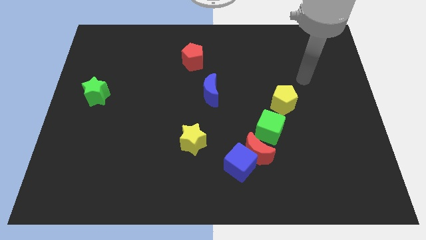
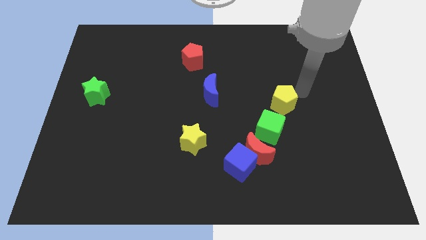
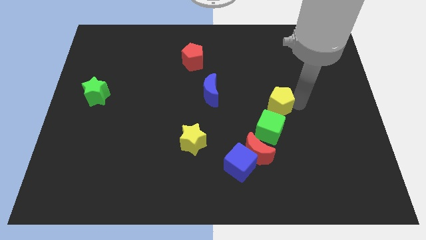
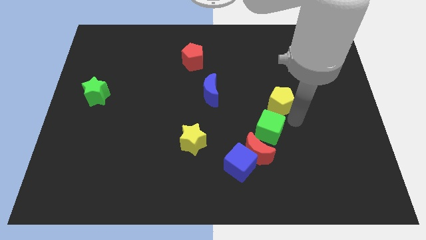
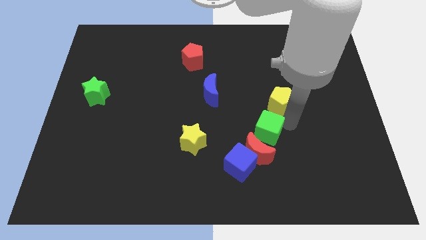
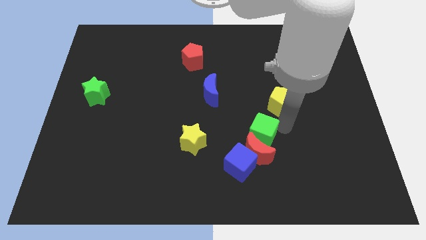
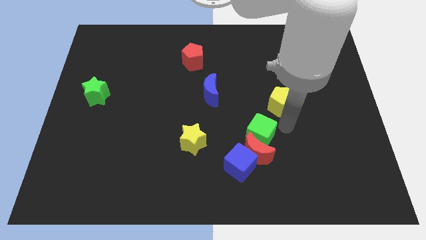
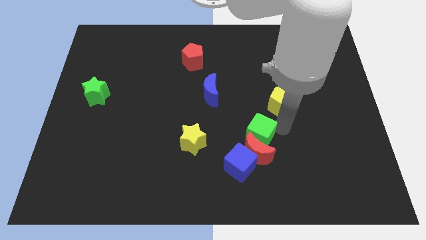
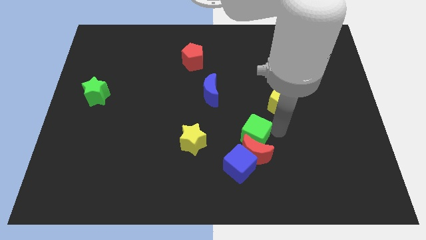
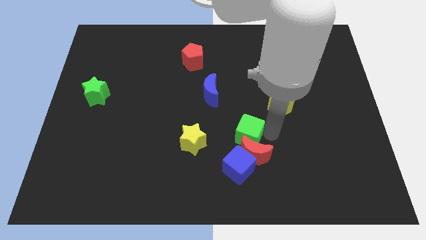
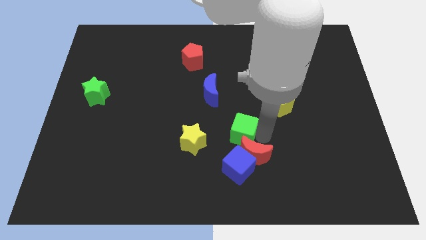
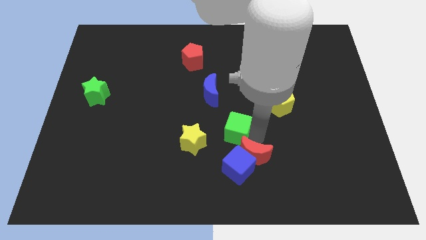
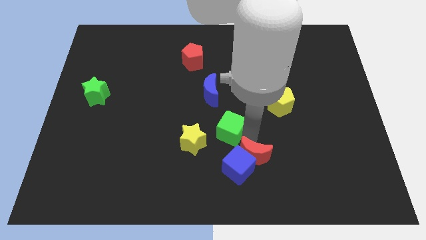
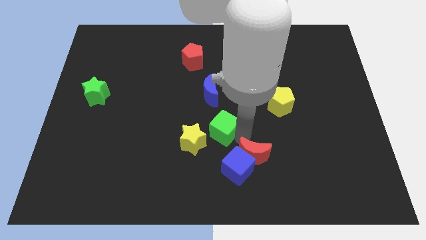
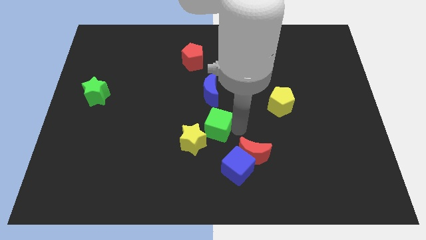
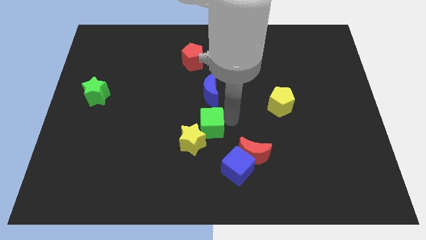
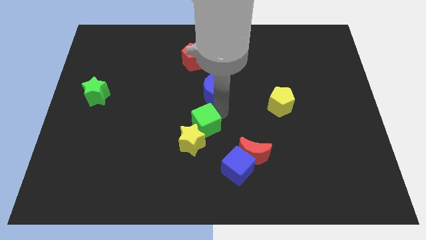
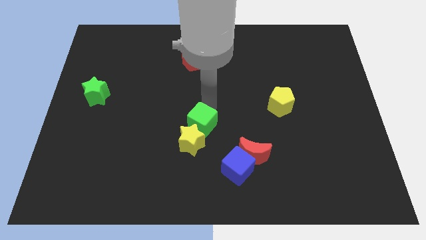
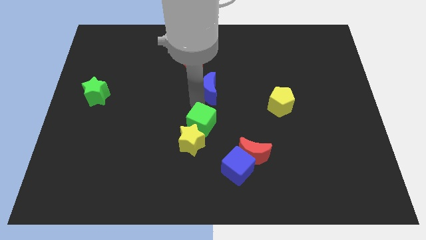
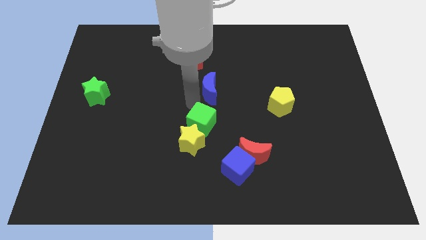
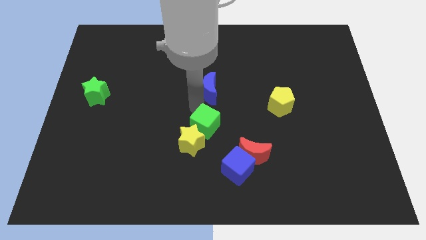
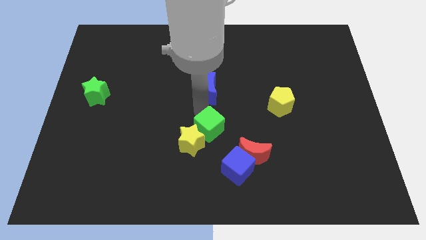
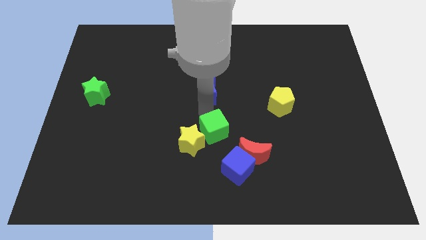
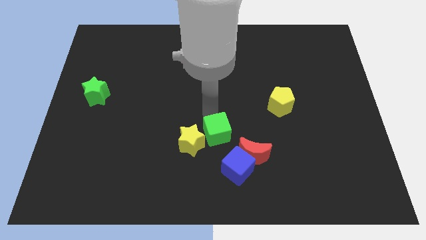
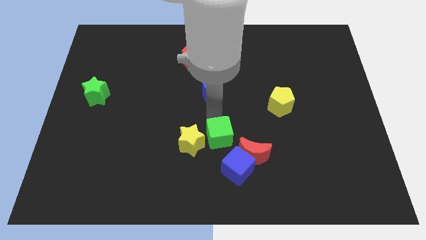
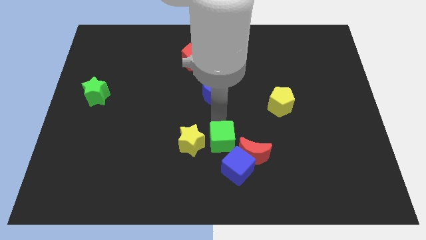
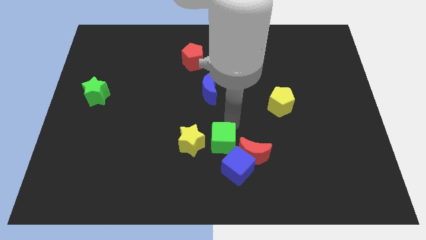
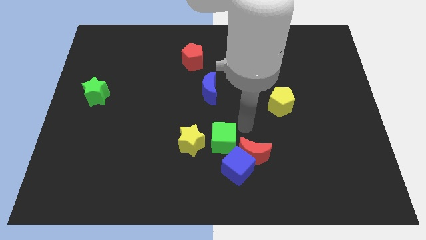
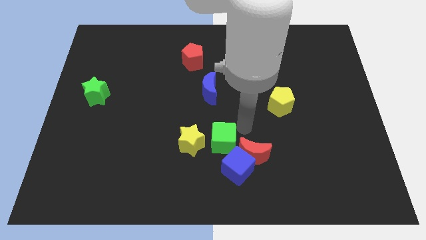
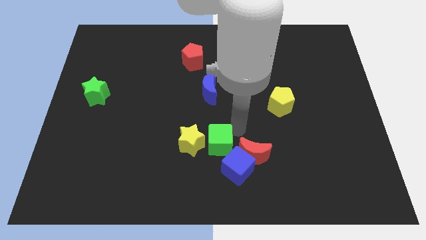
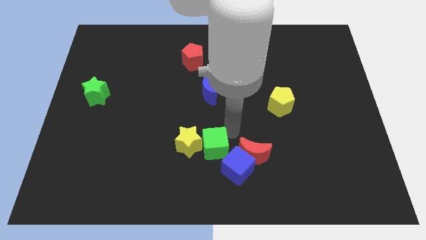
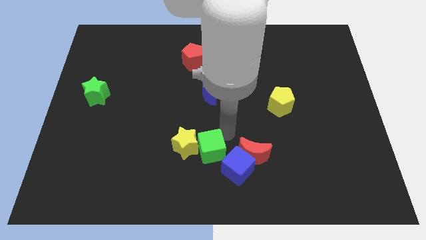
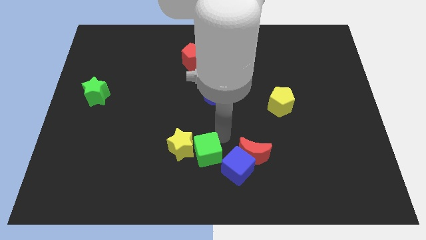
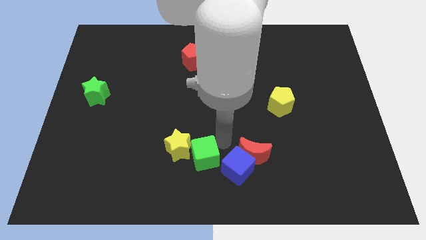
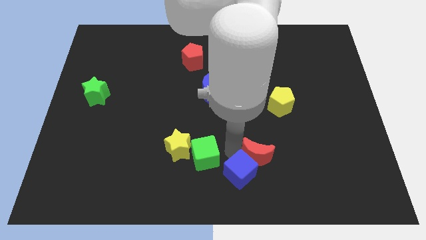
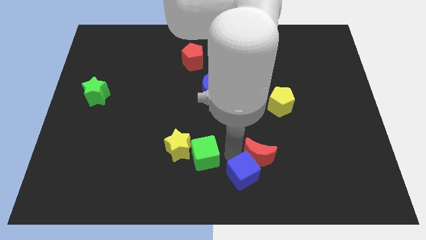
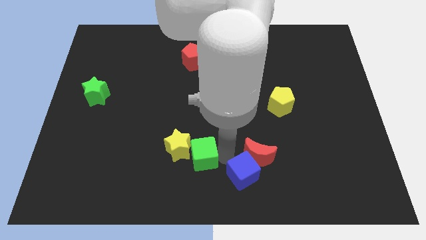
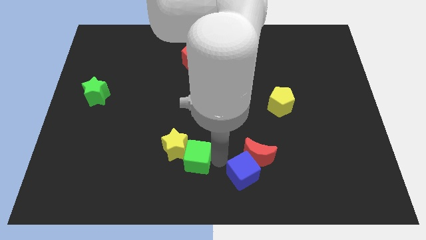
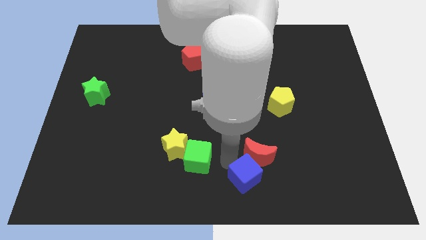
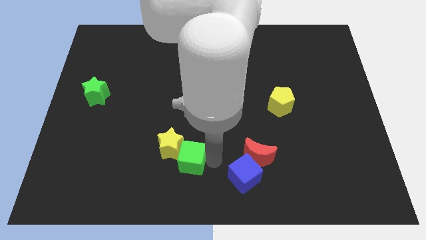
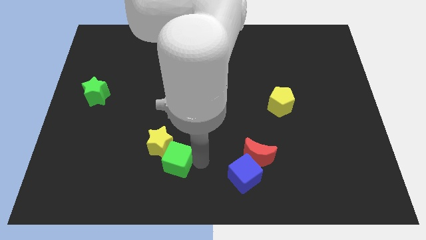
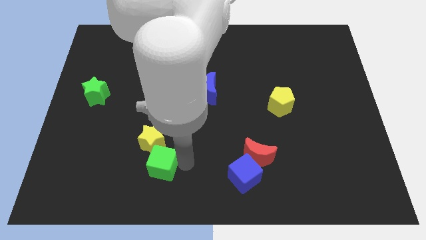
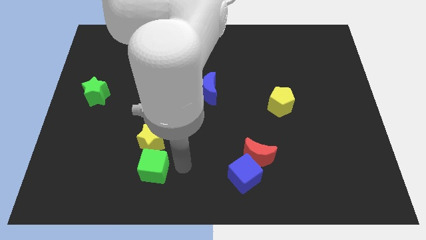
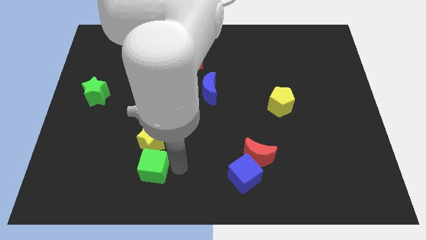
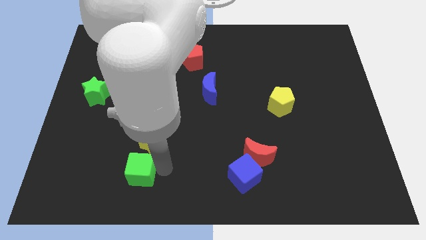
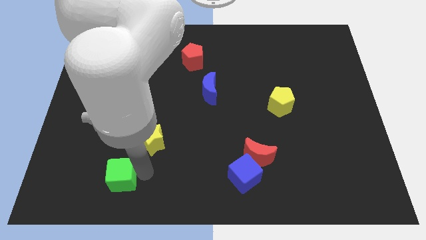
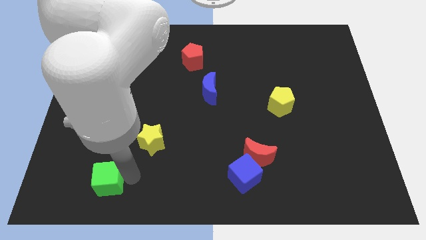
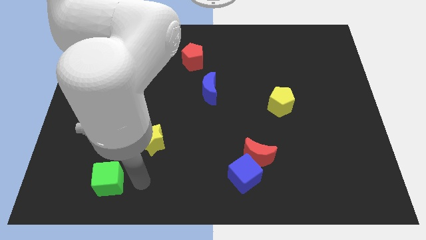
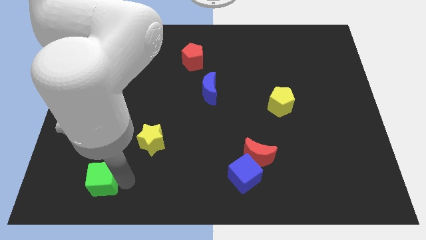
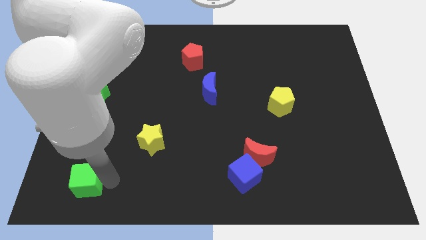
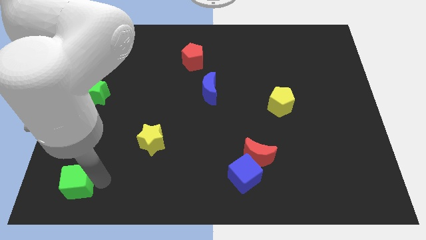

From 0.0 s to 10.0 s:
push the green cube to the bottom left of the board
